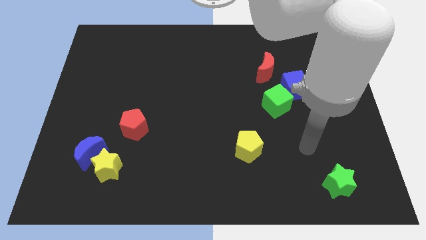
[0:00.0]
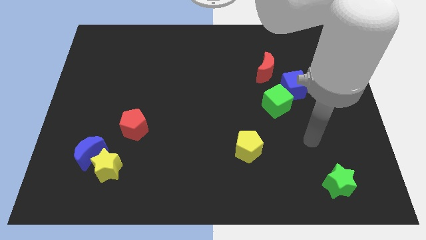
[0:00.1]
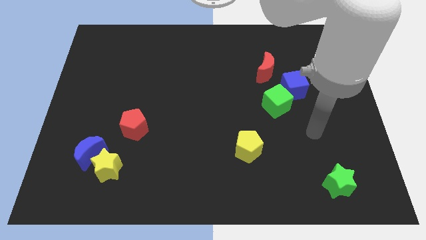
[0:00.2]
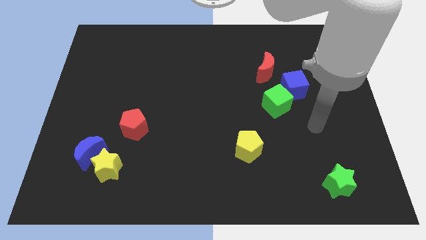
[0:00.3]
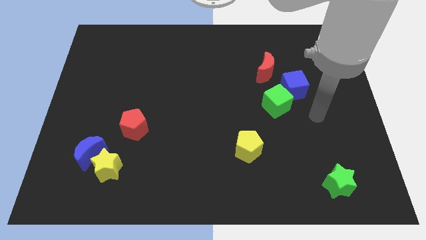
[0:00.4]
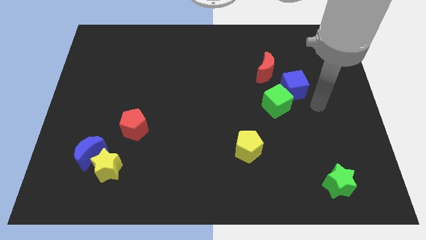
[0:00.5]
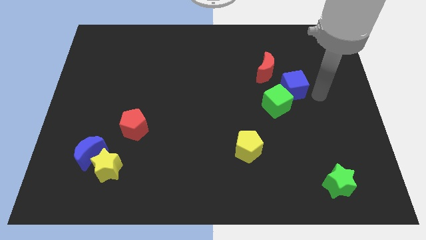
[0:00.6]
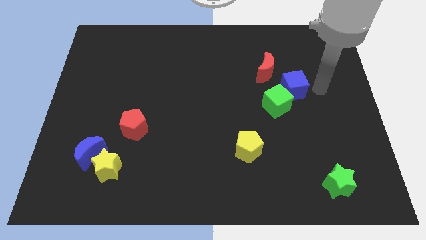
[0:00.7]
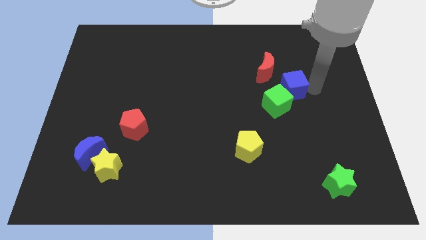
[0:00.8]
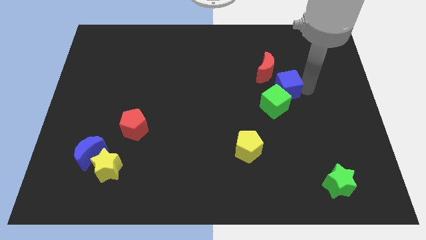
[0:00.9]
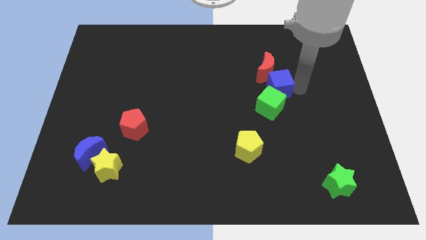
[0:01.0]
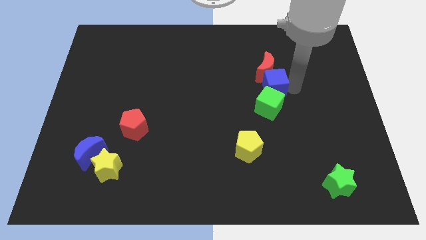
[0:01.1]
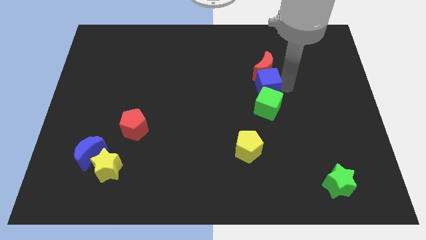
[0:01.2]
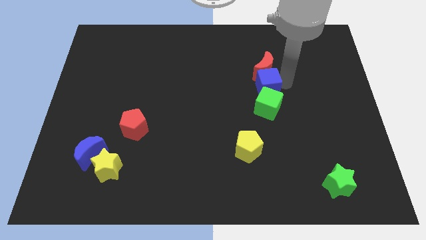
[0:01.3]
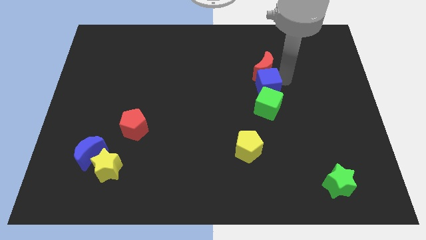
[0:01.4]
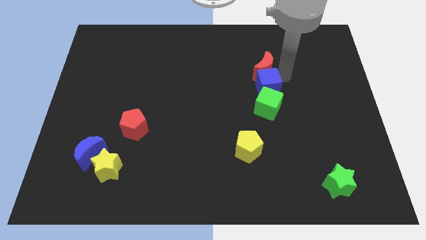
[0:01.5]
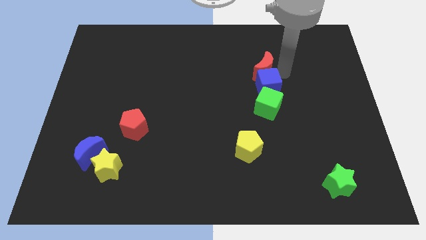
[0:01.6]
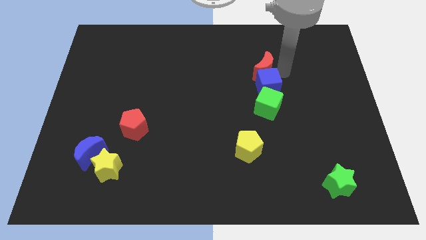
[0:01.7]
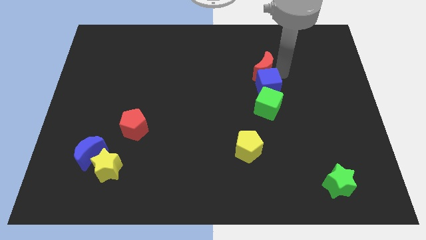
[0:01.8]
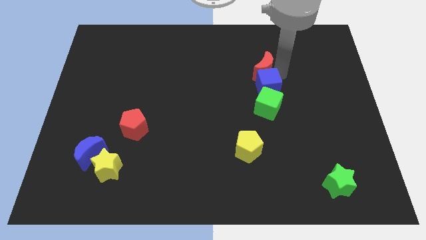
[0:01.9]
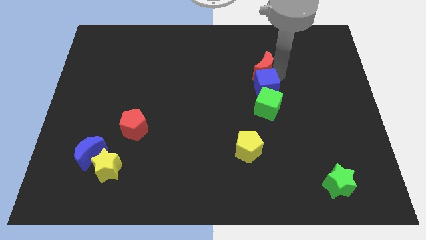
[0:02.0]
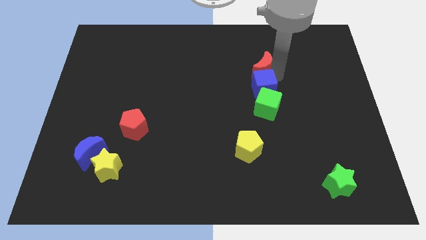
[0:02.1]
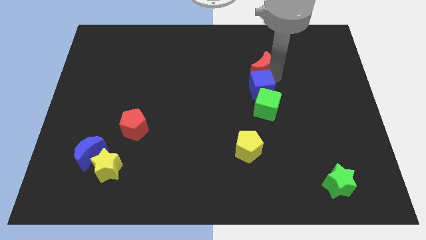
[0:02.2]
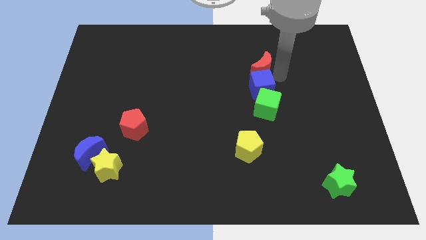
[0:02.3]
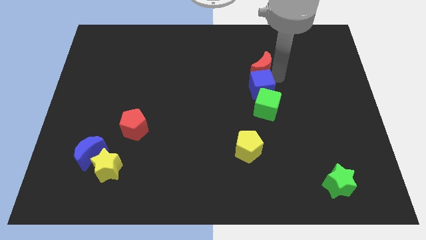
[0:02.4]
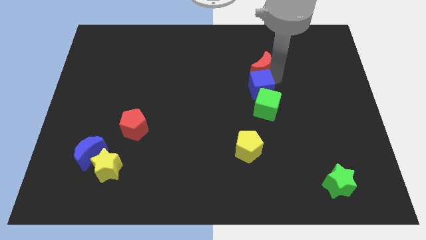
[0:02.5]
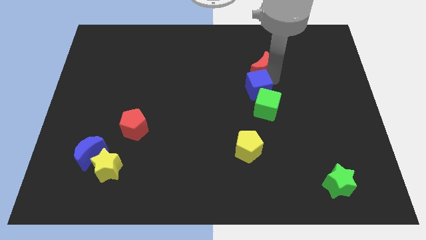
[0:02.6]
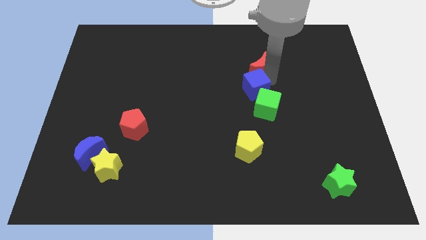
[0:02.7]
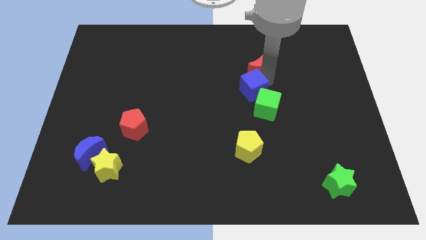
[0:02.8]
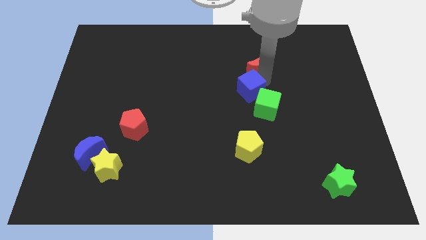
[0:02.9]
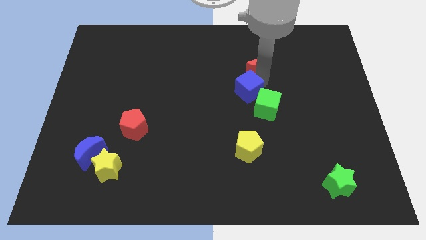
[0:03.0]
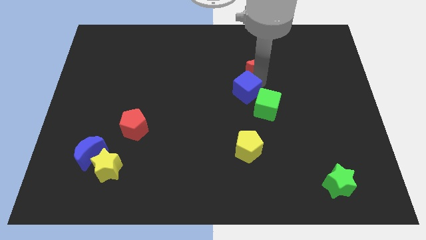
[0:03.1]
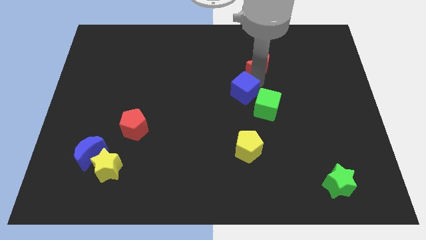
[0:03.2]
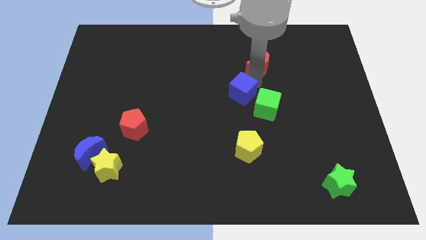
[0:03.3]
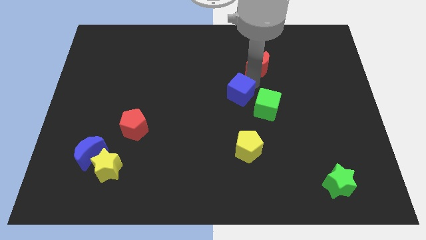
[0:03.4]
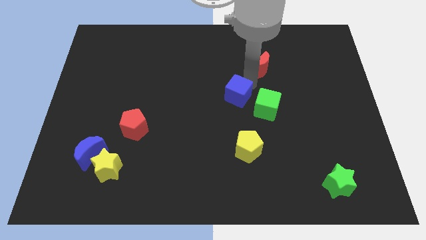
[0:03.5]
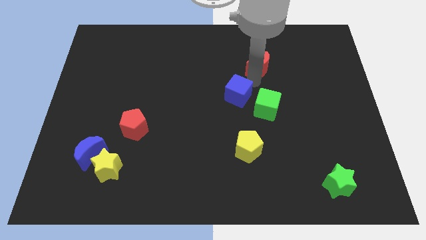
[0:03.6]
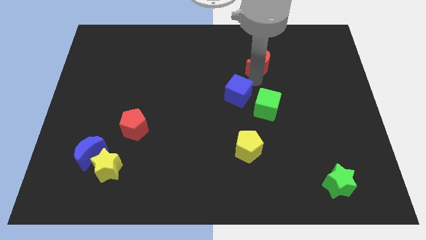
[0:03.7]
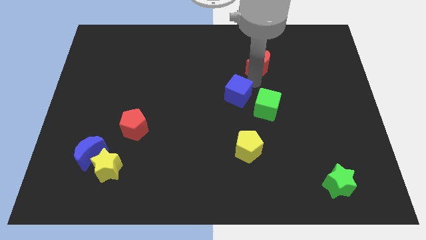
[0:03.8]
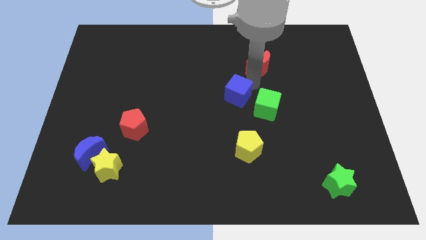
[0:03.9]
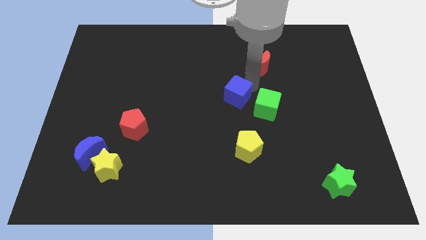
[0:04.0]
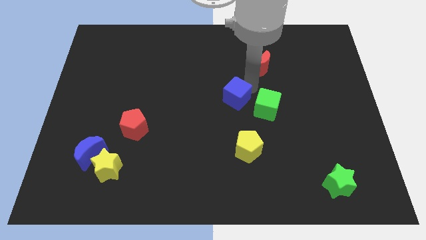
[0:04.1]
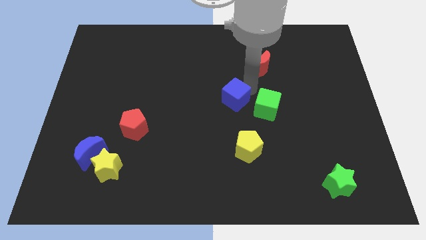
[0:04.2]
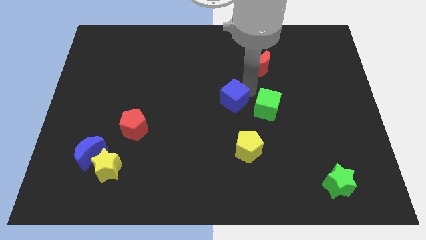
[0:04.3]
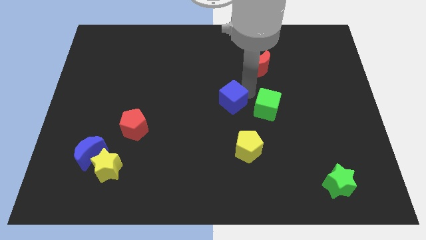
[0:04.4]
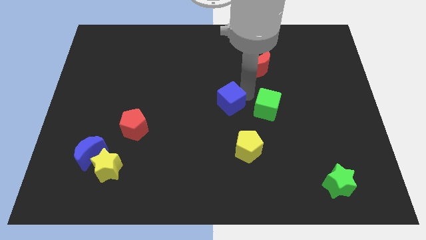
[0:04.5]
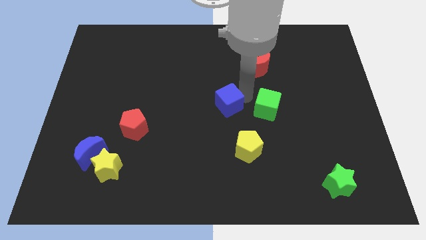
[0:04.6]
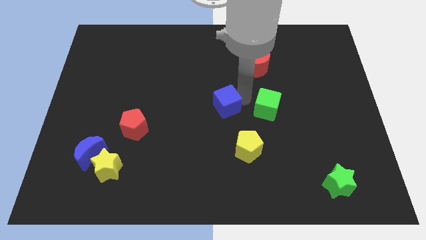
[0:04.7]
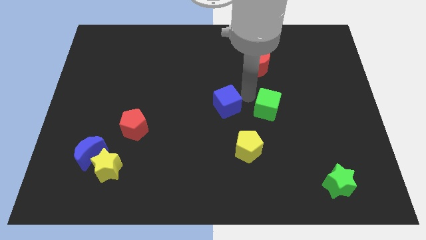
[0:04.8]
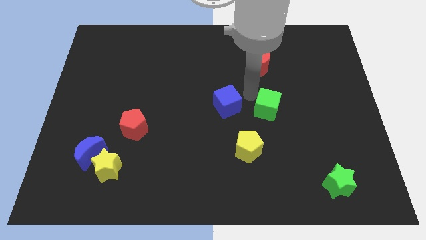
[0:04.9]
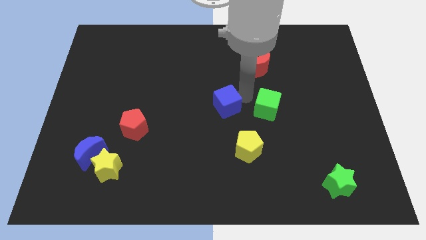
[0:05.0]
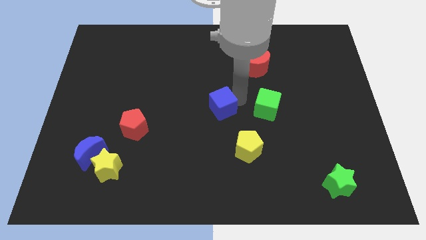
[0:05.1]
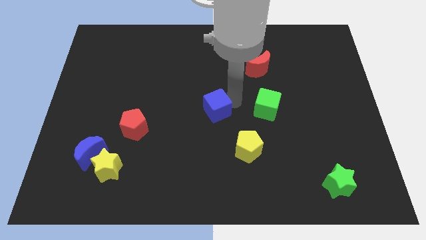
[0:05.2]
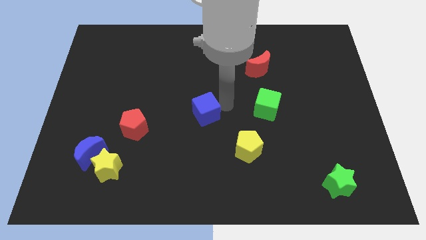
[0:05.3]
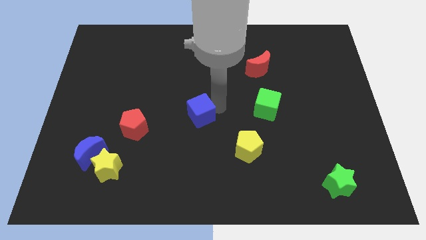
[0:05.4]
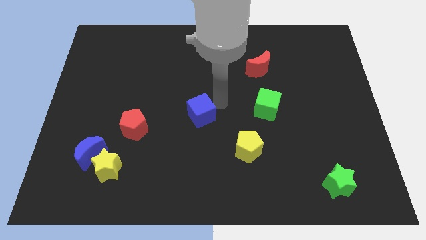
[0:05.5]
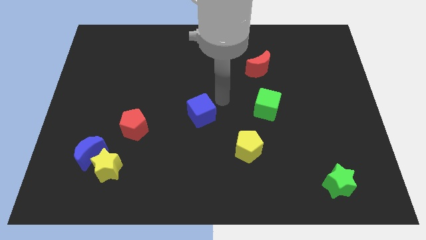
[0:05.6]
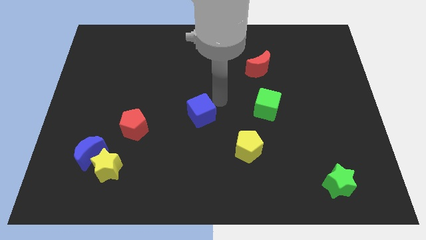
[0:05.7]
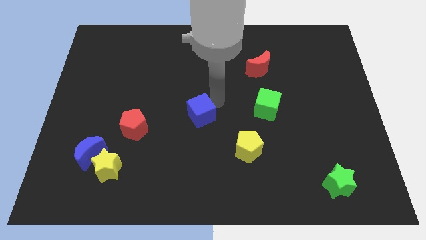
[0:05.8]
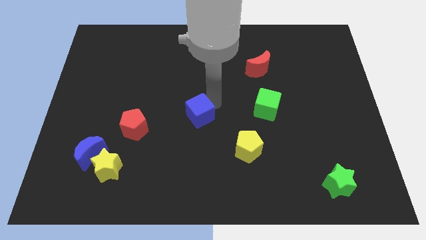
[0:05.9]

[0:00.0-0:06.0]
push the blue cube just right of the red pentagon

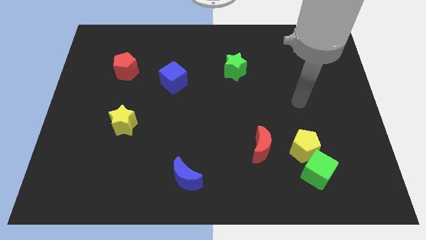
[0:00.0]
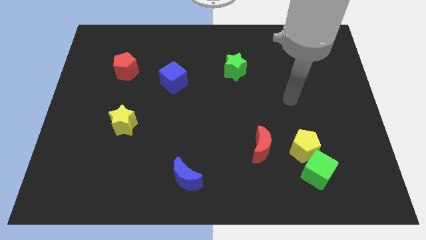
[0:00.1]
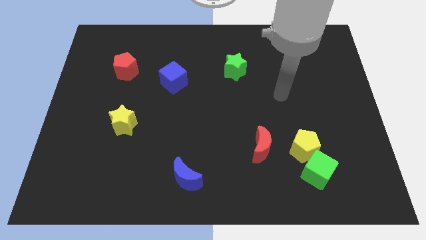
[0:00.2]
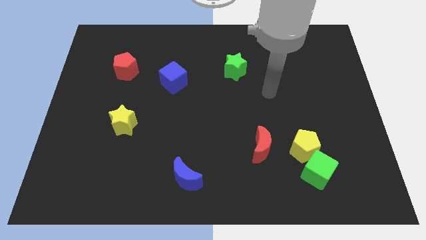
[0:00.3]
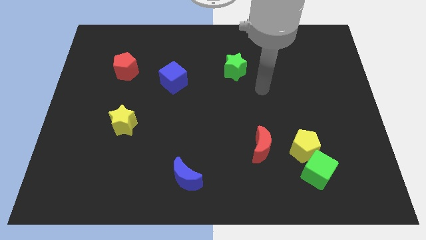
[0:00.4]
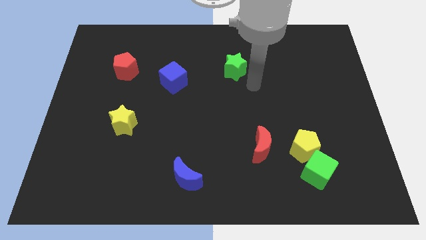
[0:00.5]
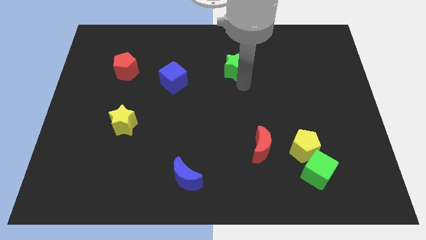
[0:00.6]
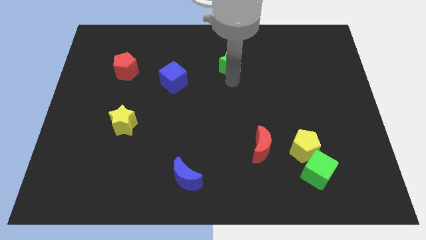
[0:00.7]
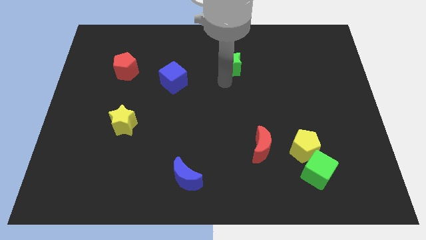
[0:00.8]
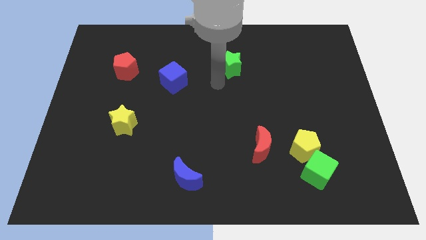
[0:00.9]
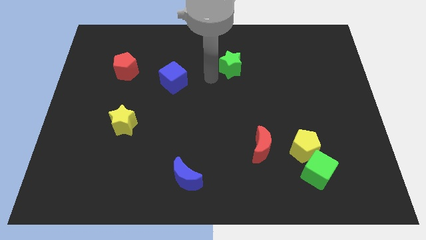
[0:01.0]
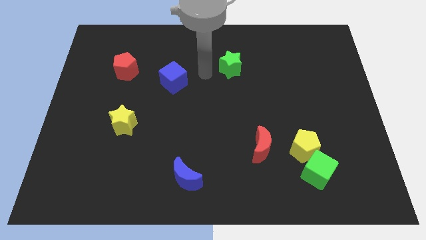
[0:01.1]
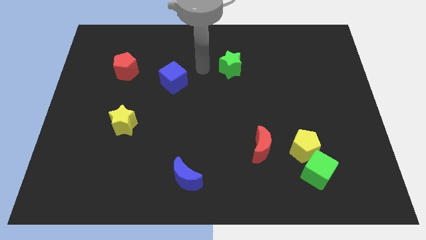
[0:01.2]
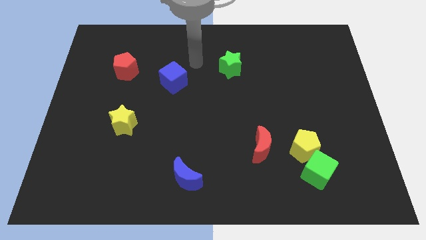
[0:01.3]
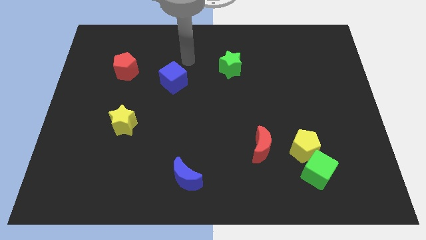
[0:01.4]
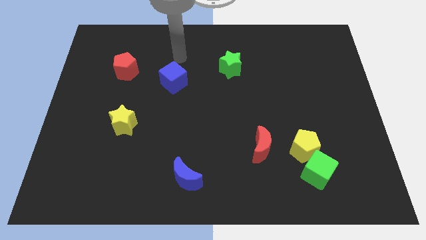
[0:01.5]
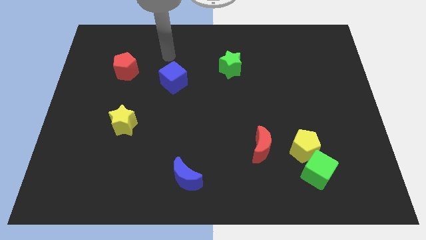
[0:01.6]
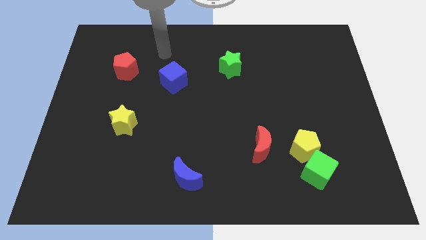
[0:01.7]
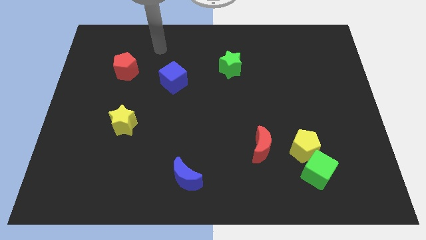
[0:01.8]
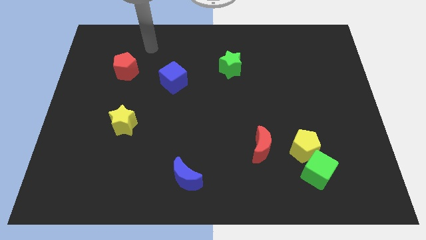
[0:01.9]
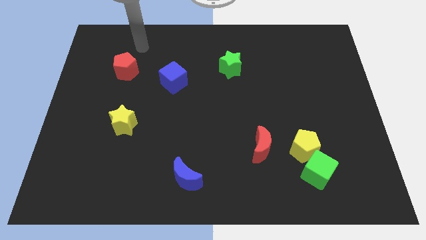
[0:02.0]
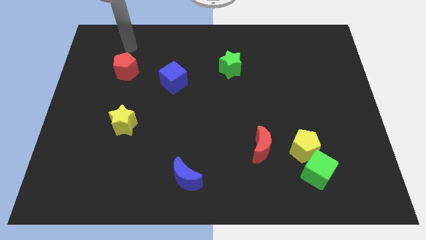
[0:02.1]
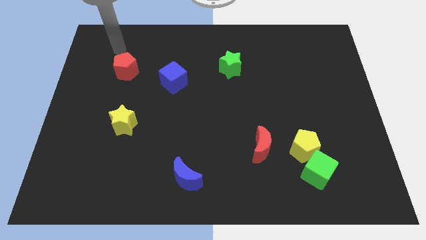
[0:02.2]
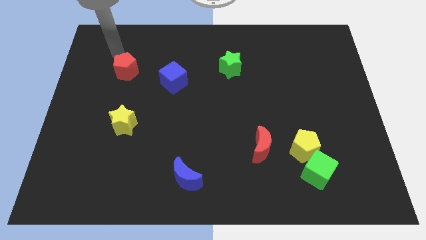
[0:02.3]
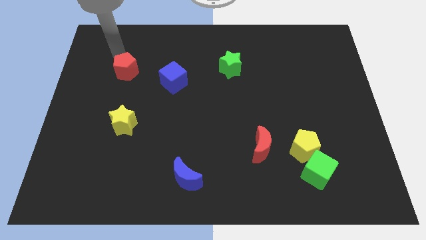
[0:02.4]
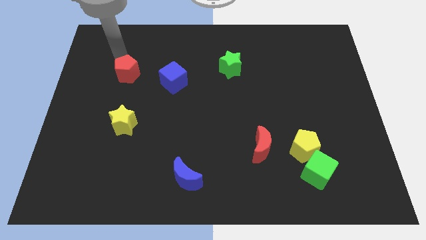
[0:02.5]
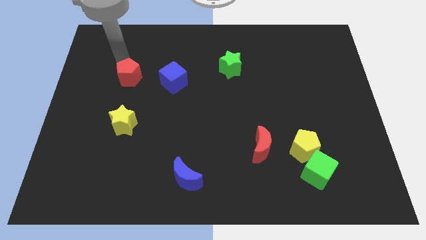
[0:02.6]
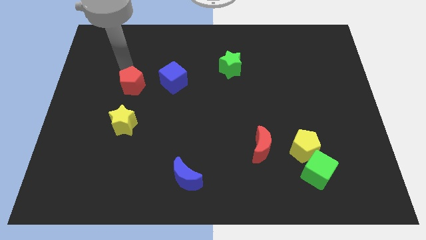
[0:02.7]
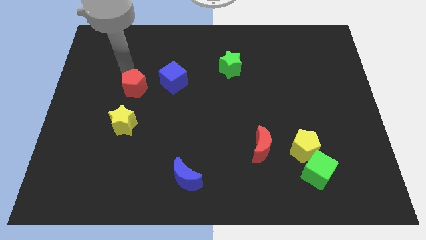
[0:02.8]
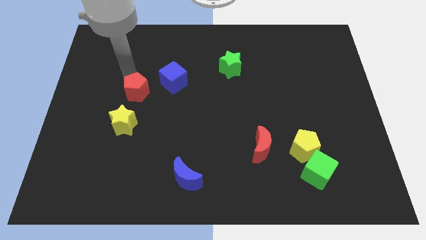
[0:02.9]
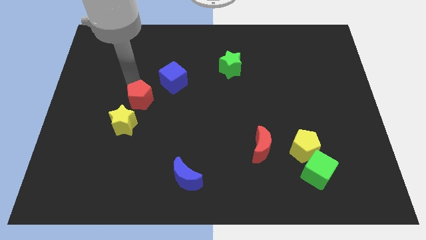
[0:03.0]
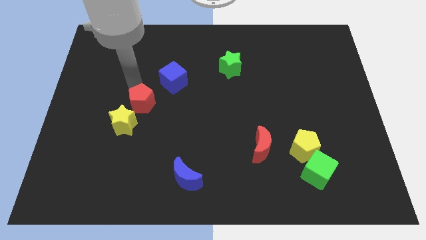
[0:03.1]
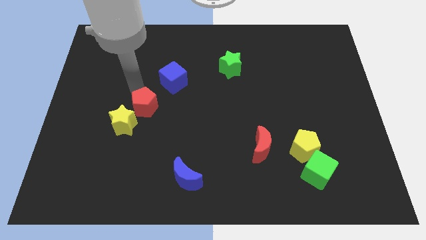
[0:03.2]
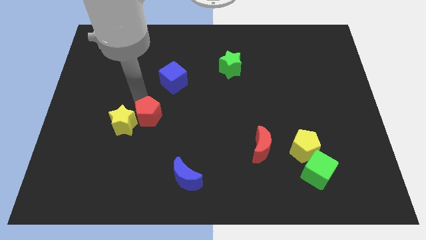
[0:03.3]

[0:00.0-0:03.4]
push the red pentagon to the right side of the yellow star
